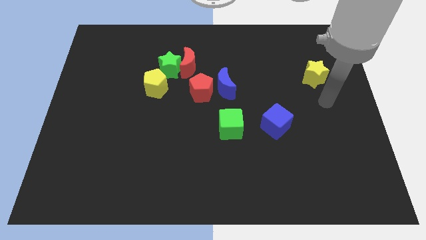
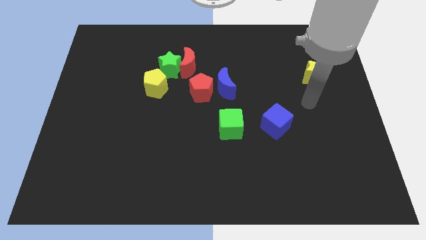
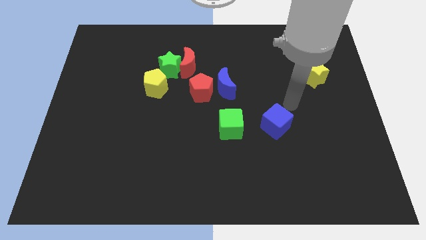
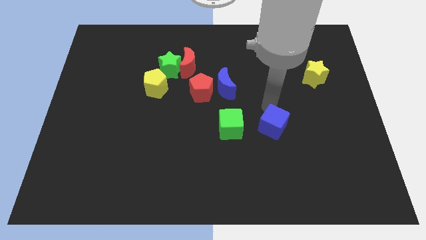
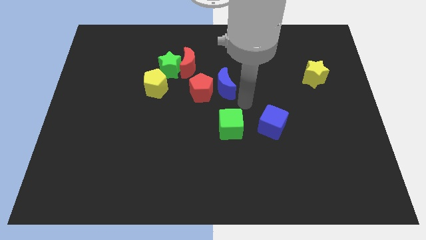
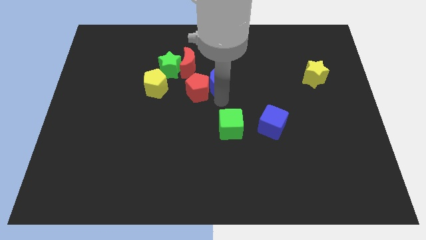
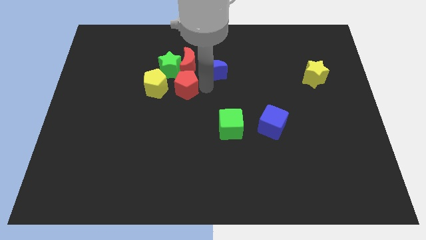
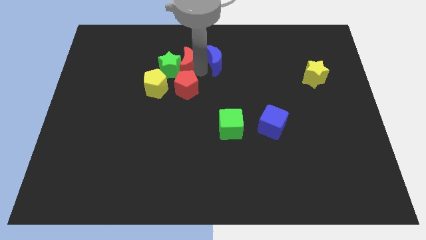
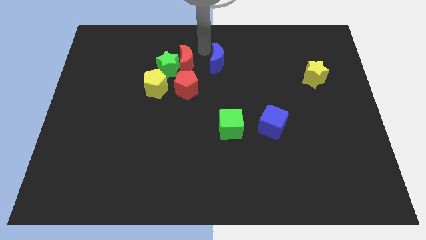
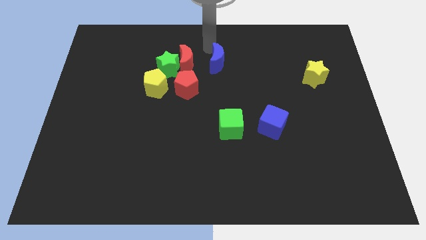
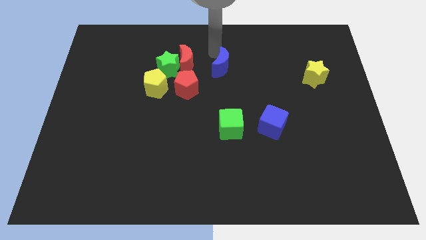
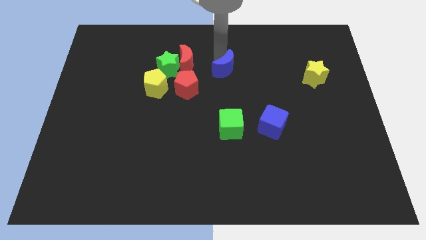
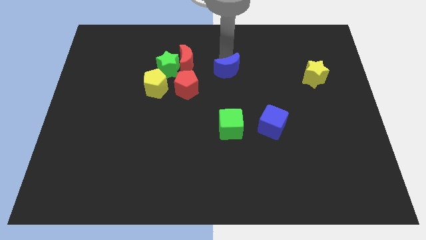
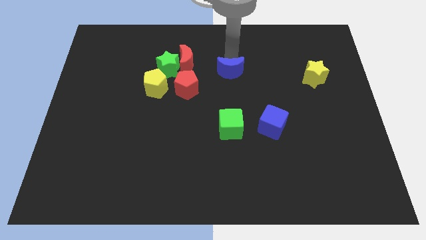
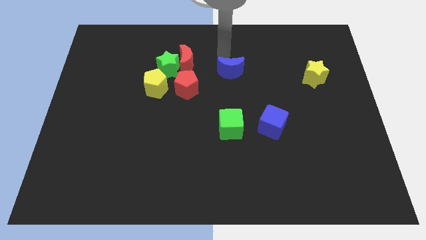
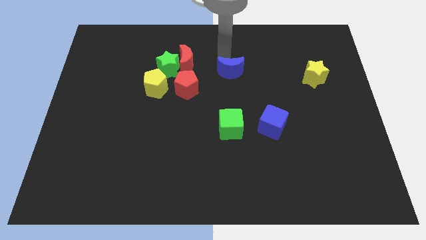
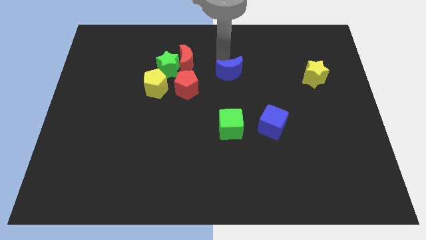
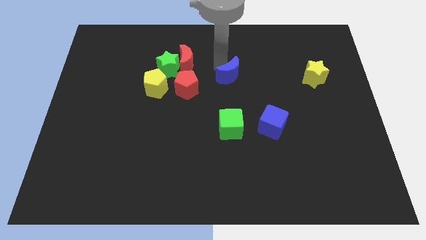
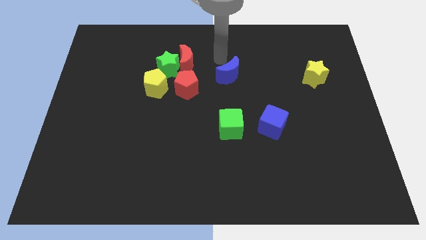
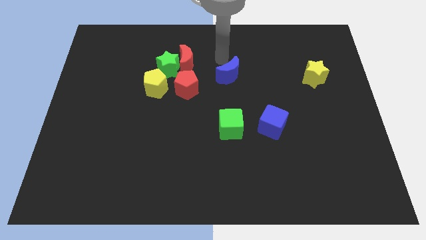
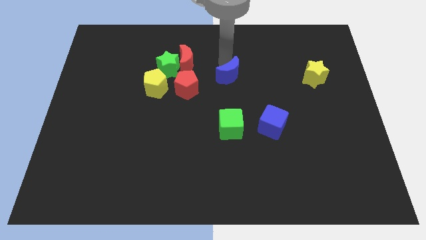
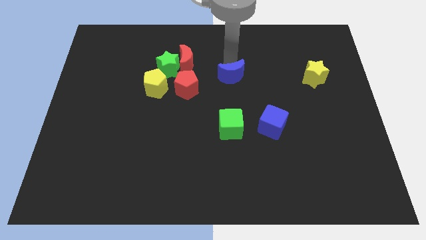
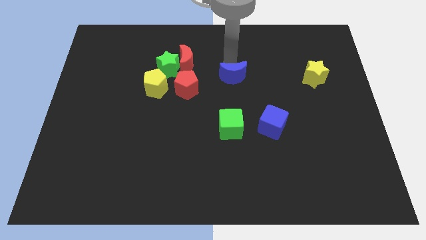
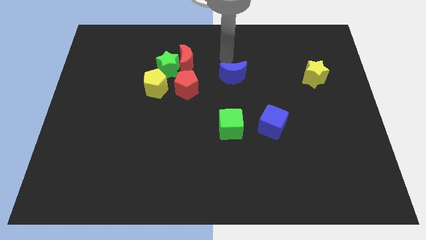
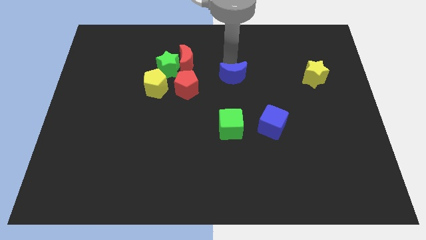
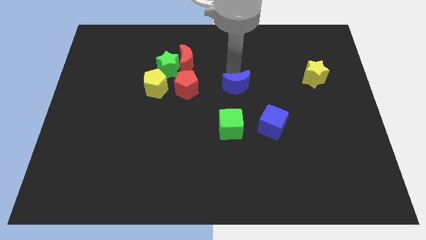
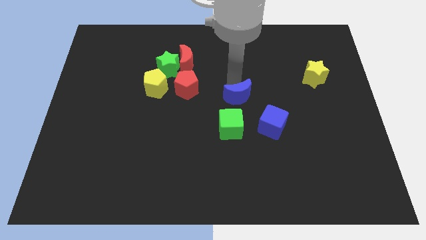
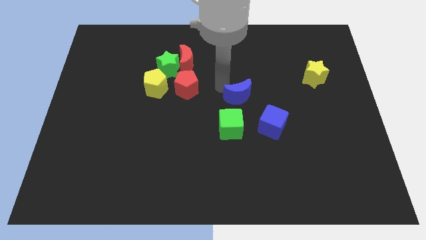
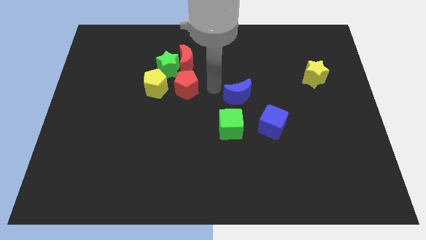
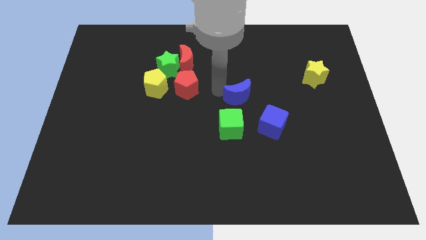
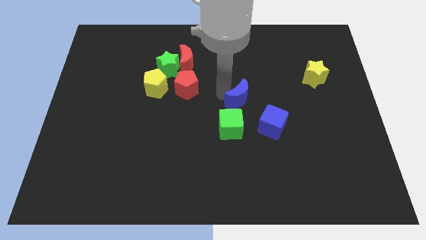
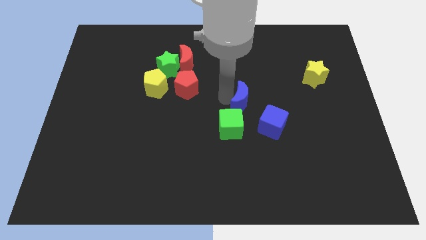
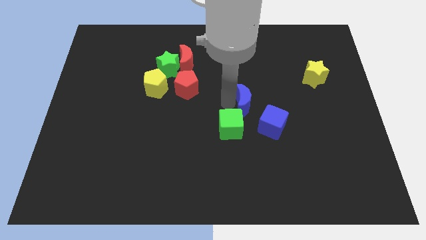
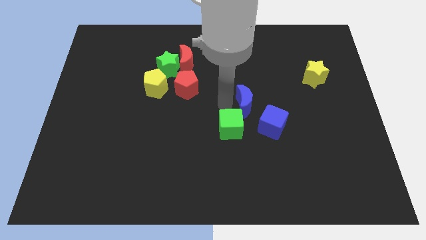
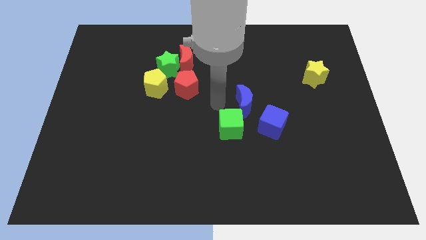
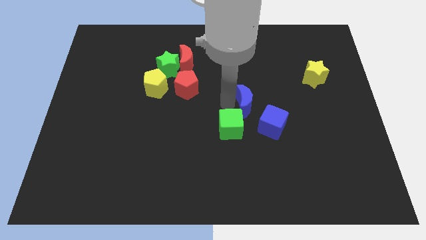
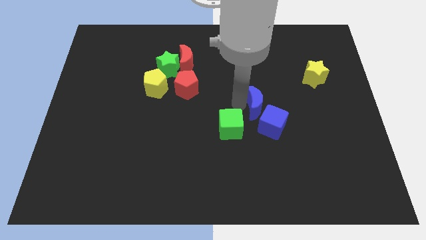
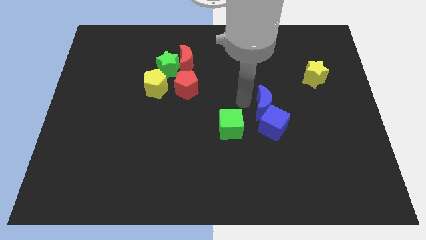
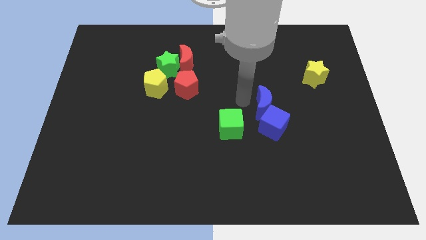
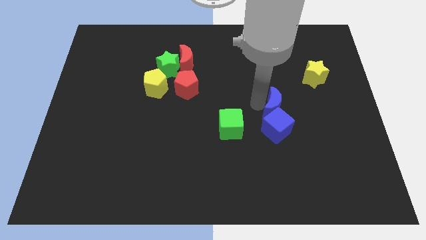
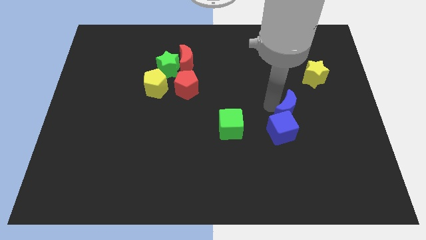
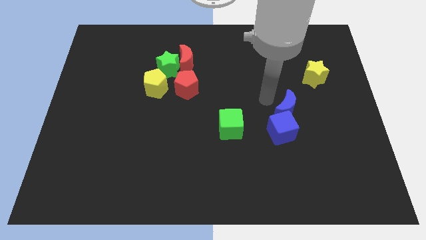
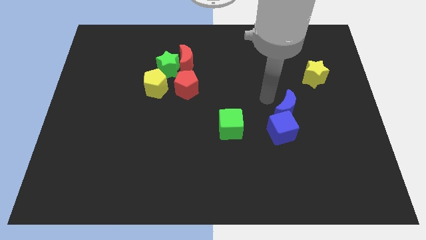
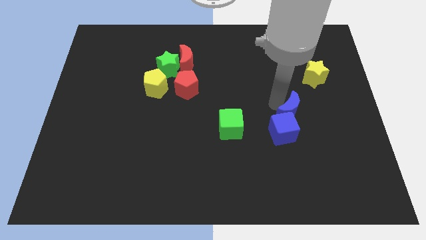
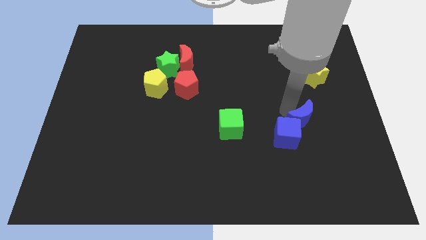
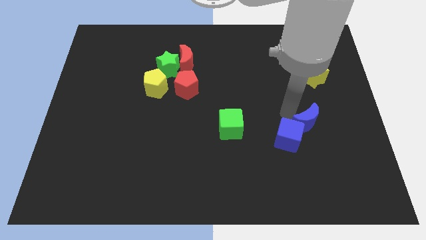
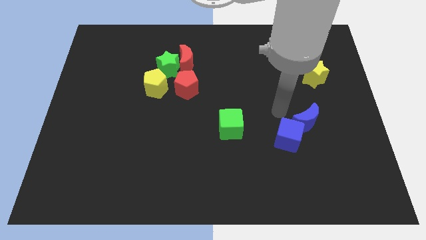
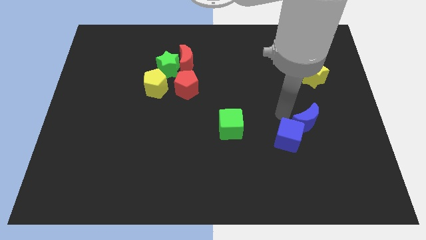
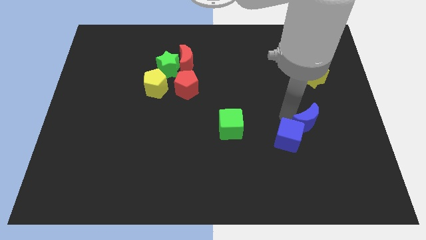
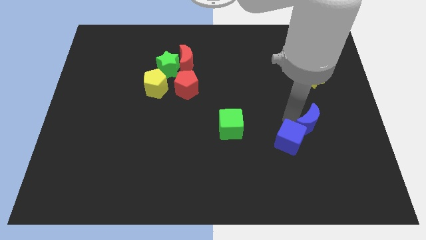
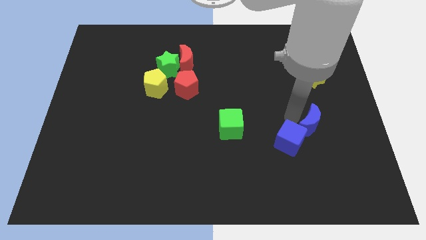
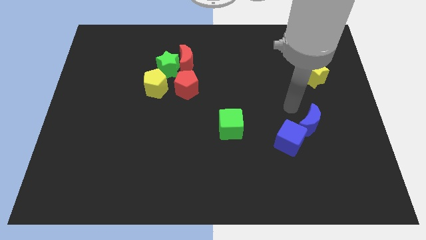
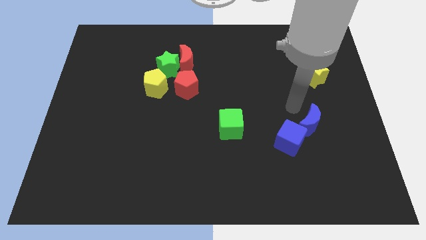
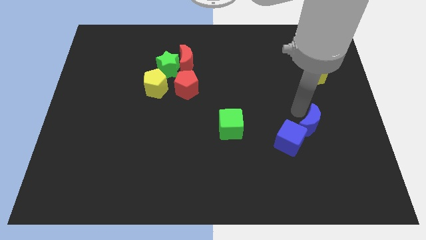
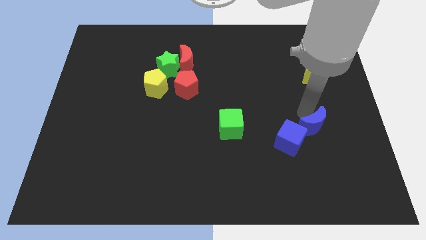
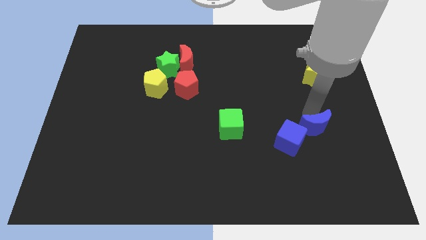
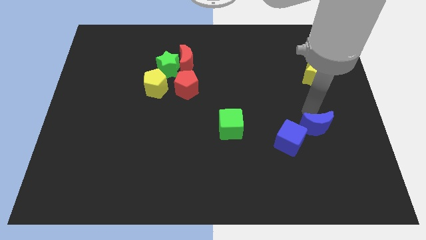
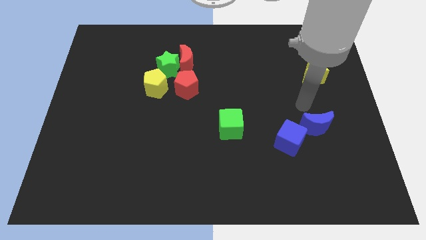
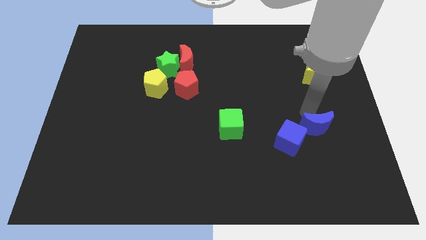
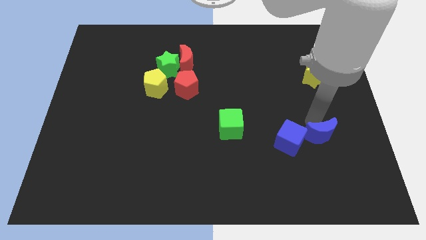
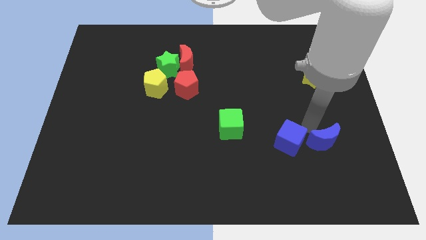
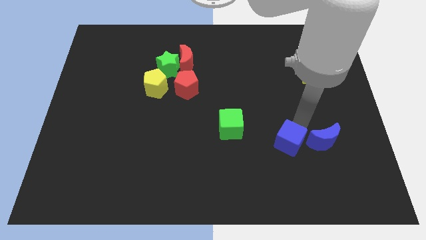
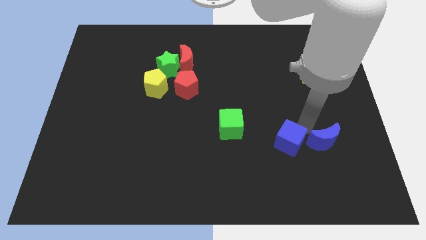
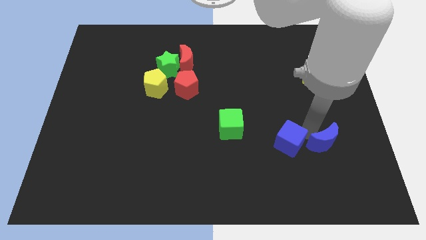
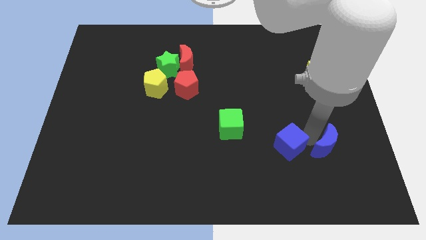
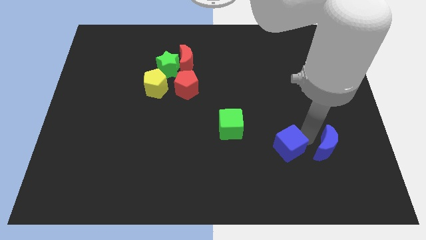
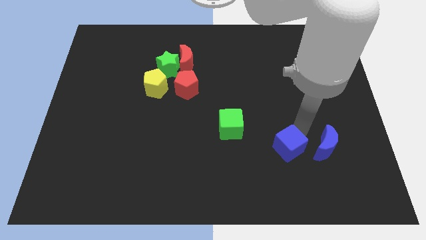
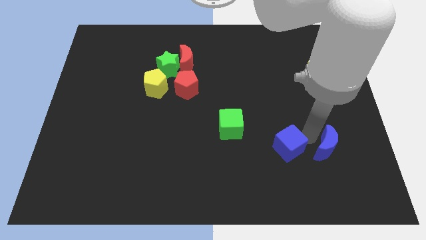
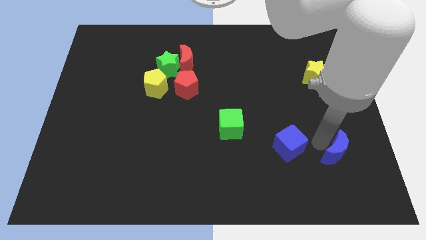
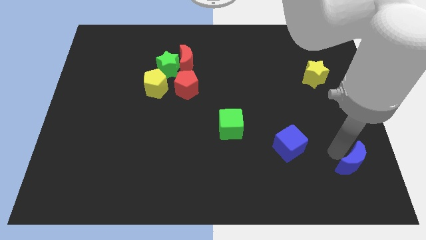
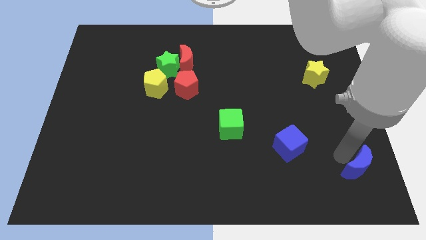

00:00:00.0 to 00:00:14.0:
push the blue moon to the bottom right
